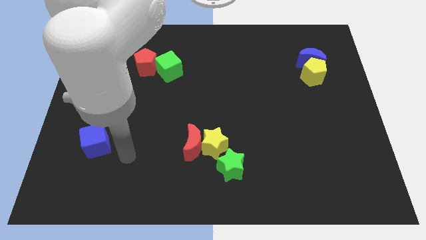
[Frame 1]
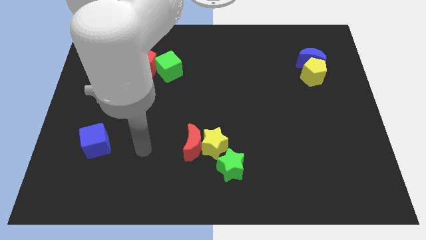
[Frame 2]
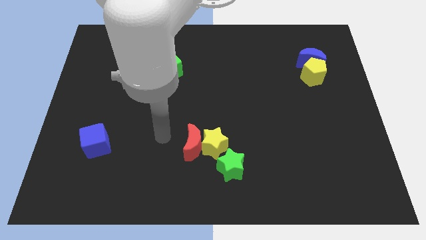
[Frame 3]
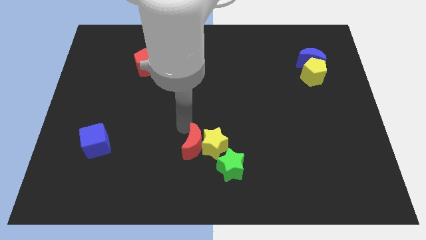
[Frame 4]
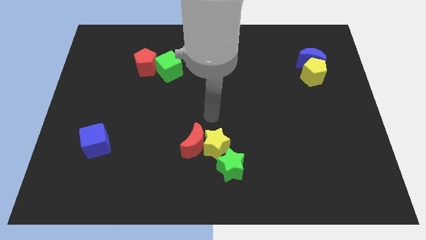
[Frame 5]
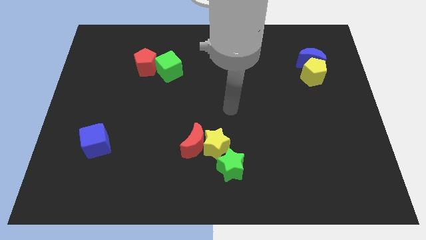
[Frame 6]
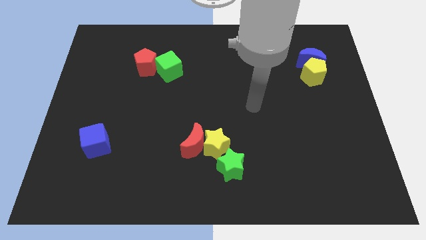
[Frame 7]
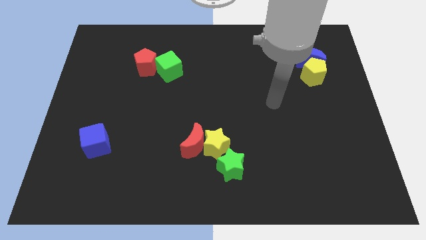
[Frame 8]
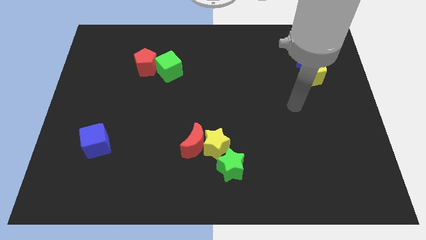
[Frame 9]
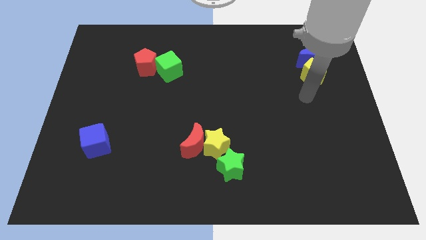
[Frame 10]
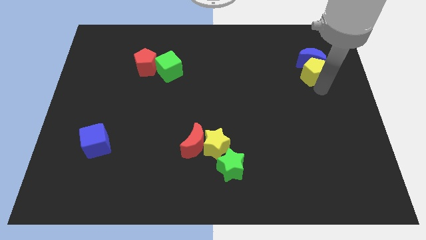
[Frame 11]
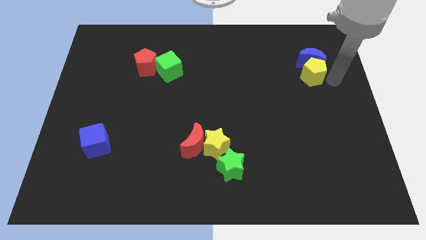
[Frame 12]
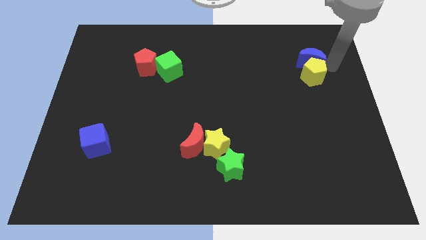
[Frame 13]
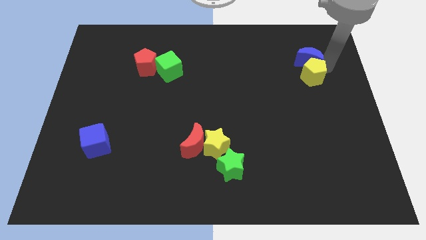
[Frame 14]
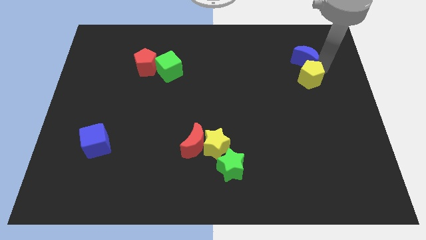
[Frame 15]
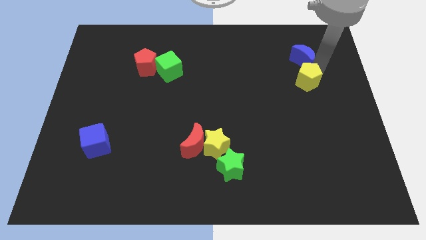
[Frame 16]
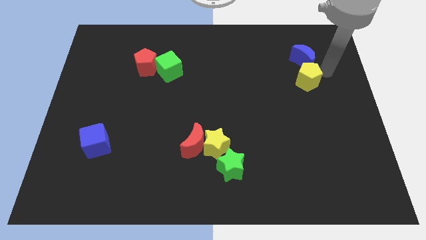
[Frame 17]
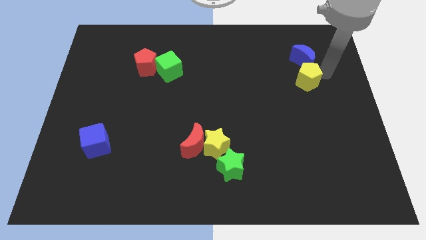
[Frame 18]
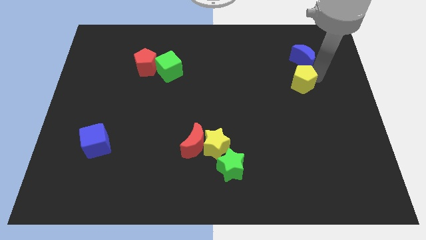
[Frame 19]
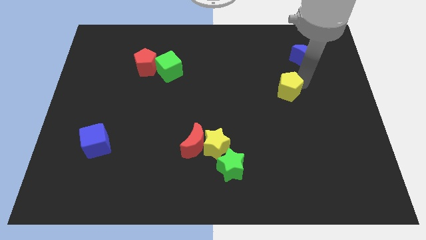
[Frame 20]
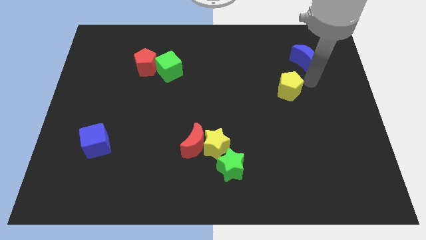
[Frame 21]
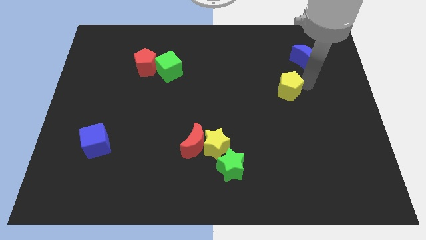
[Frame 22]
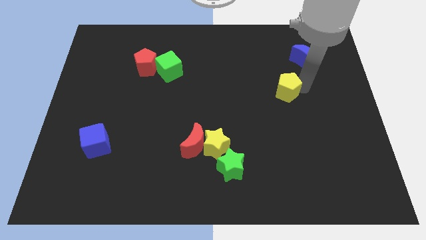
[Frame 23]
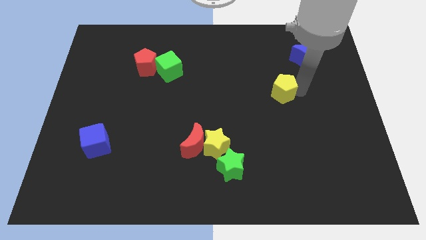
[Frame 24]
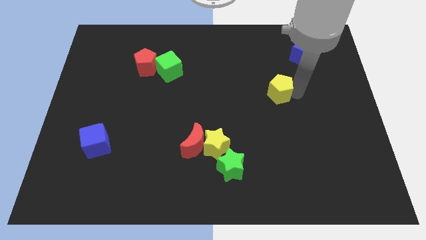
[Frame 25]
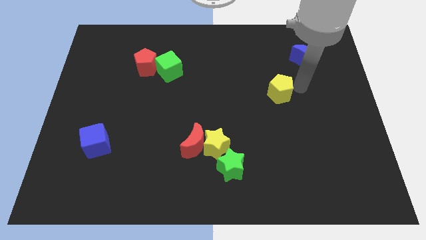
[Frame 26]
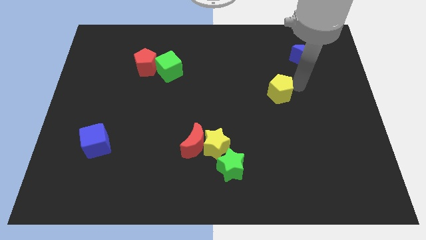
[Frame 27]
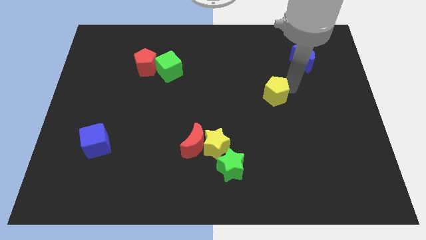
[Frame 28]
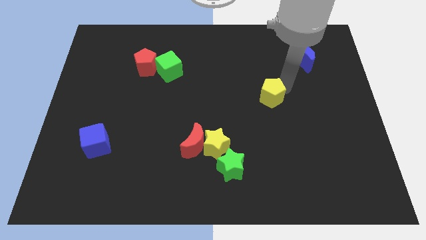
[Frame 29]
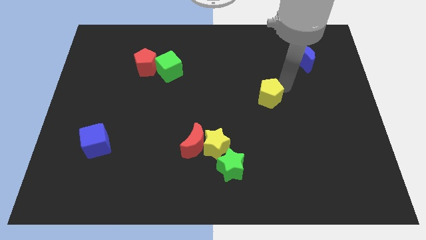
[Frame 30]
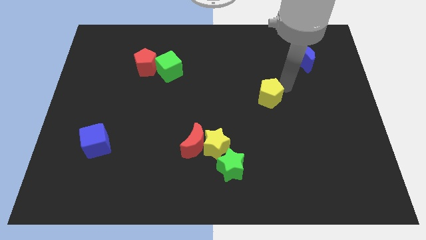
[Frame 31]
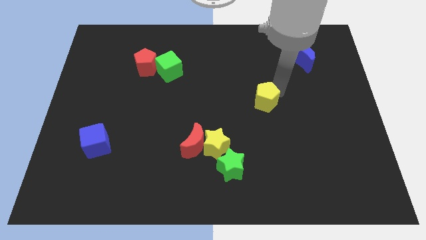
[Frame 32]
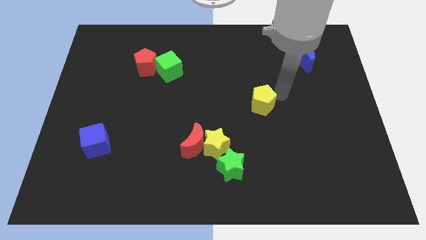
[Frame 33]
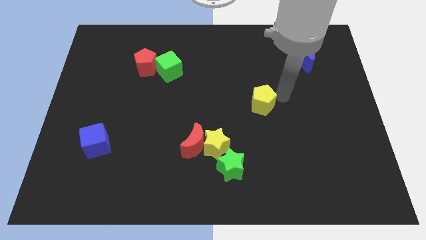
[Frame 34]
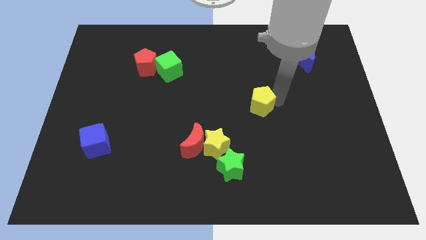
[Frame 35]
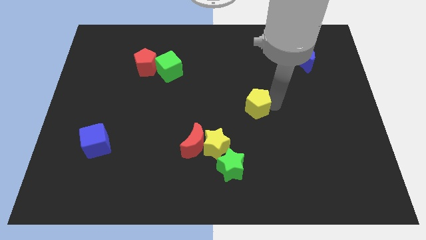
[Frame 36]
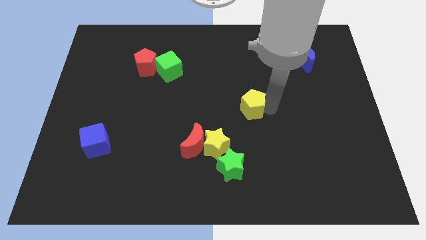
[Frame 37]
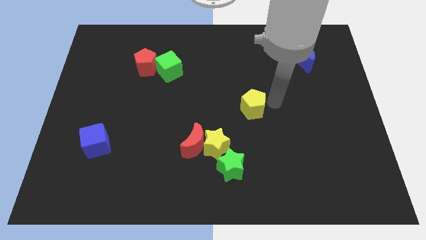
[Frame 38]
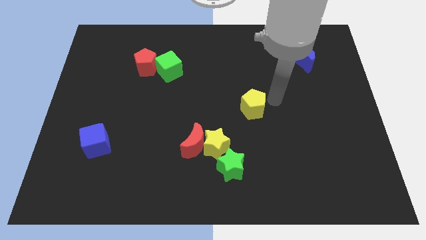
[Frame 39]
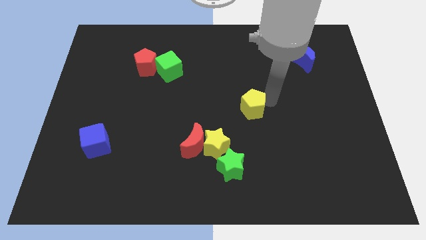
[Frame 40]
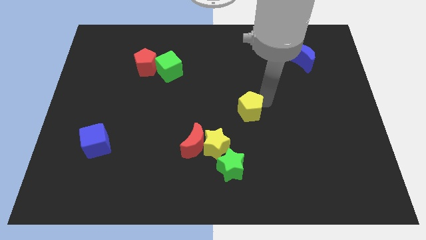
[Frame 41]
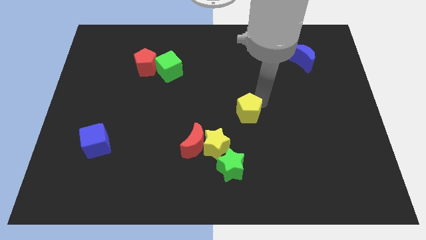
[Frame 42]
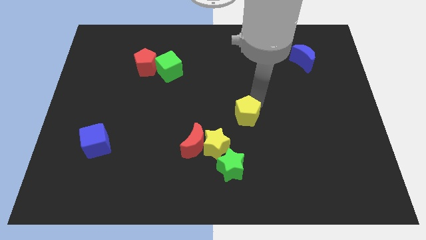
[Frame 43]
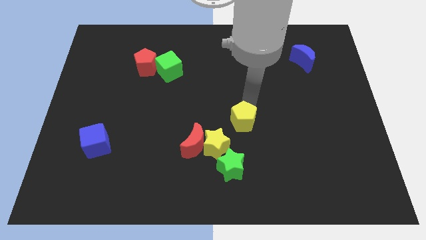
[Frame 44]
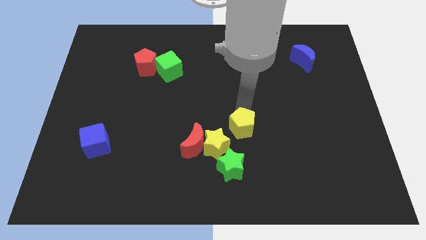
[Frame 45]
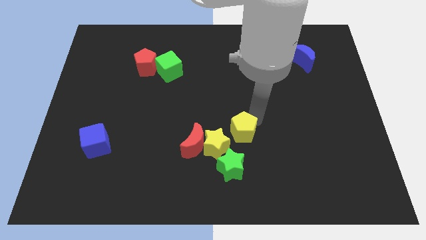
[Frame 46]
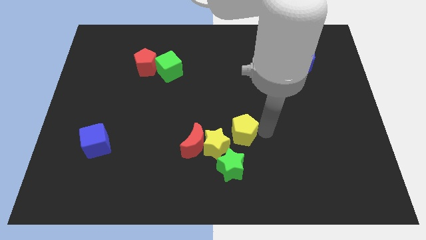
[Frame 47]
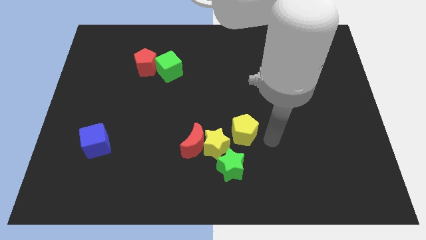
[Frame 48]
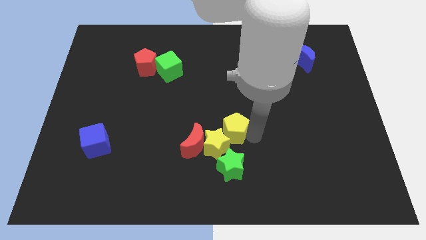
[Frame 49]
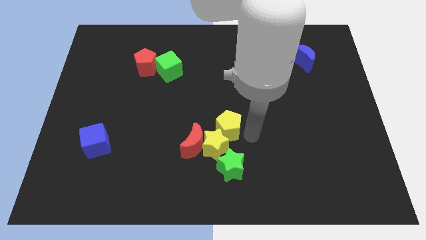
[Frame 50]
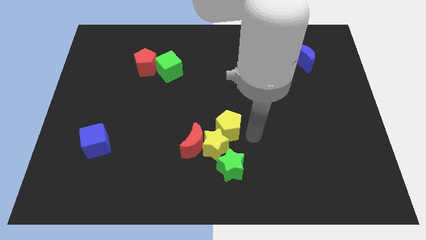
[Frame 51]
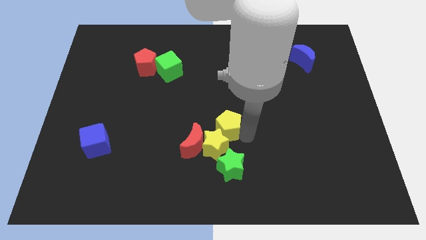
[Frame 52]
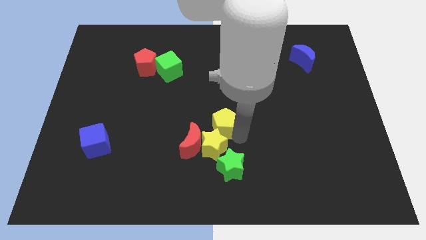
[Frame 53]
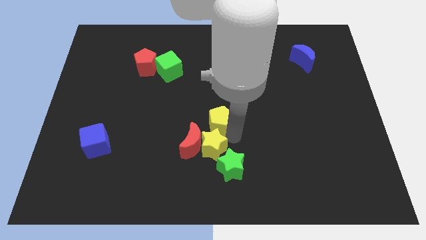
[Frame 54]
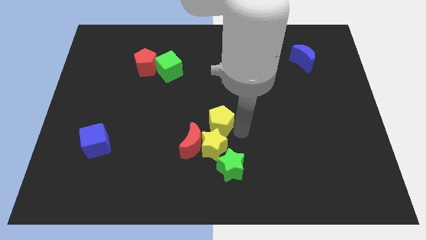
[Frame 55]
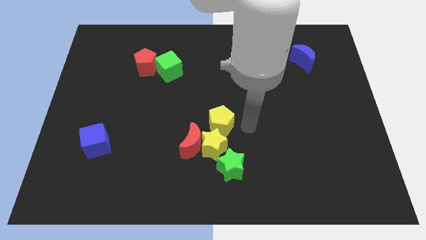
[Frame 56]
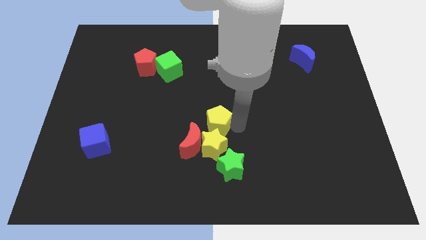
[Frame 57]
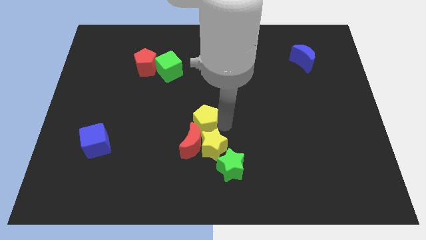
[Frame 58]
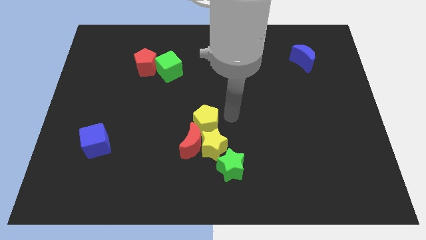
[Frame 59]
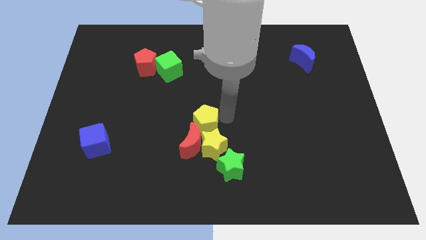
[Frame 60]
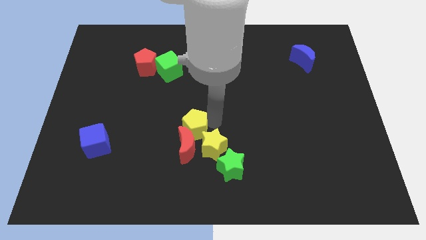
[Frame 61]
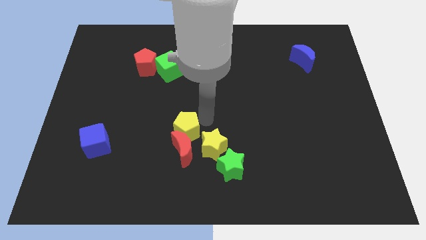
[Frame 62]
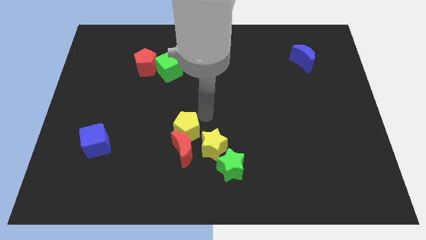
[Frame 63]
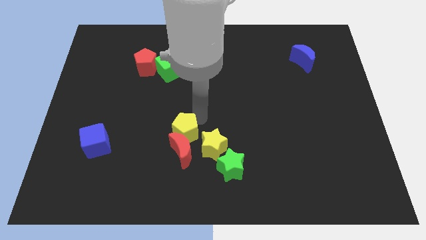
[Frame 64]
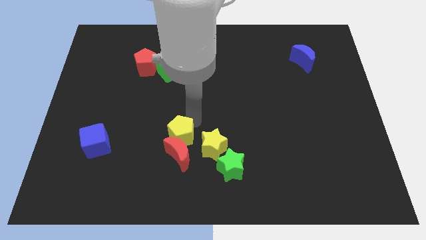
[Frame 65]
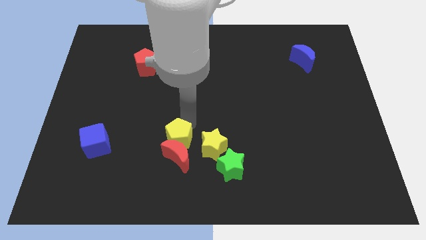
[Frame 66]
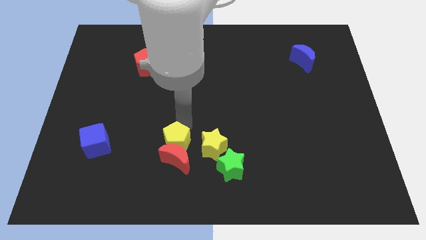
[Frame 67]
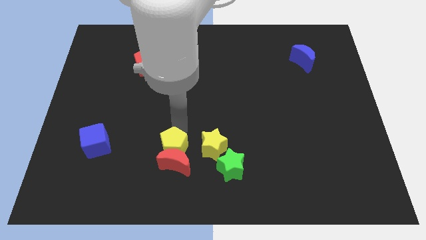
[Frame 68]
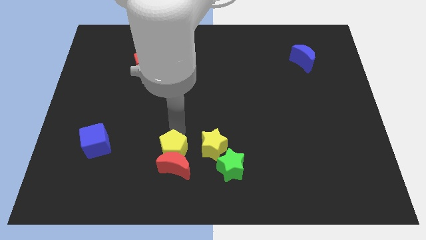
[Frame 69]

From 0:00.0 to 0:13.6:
push the yellow pentagon to the left side of the green star
